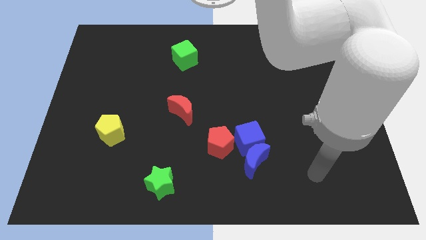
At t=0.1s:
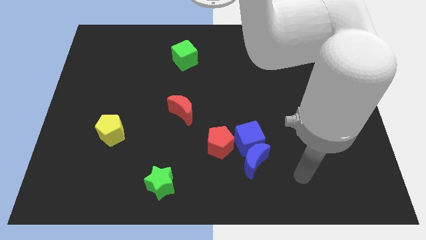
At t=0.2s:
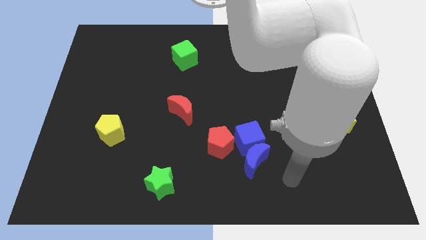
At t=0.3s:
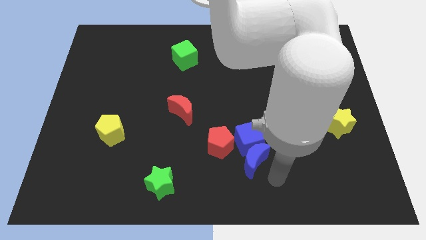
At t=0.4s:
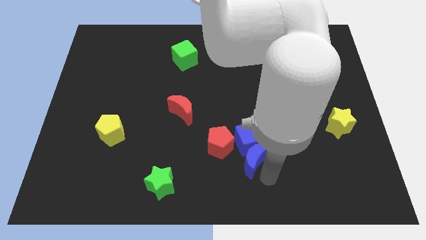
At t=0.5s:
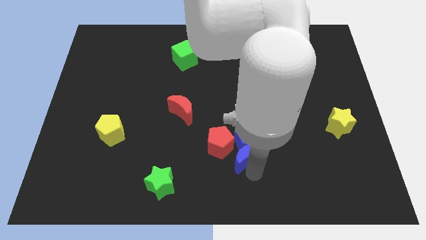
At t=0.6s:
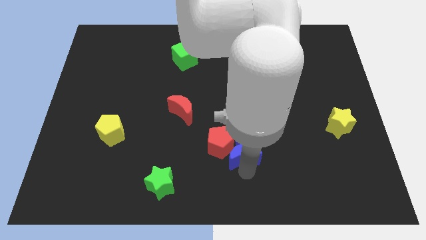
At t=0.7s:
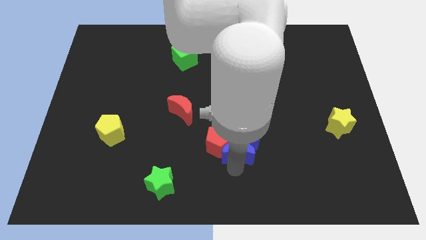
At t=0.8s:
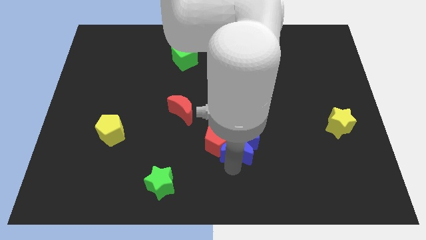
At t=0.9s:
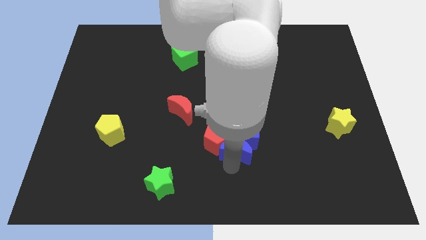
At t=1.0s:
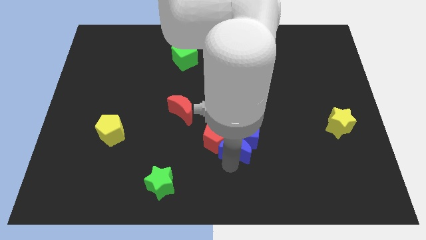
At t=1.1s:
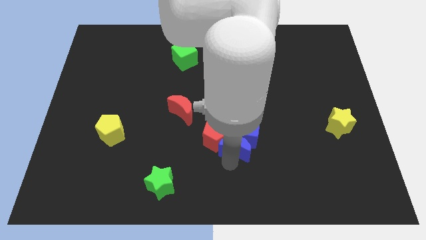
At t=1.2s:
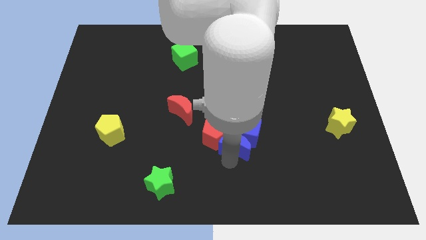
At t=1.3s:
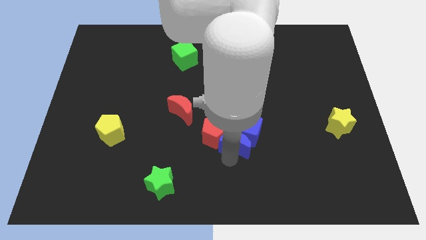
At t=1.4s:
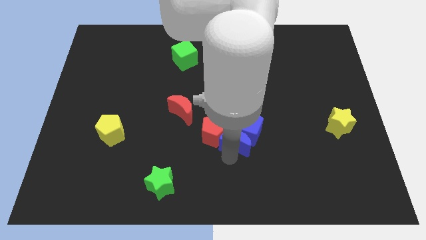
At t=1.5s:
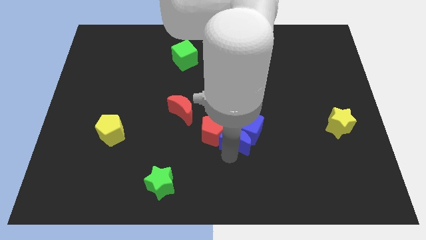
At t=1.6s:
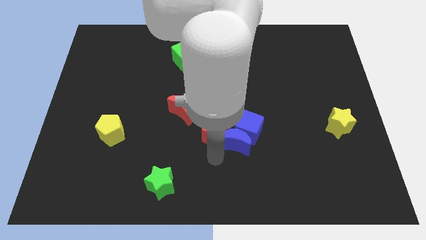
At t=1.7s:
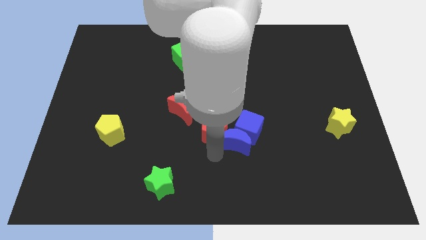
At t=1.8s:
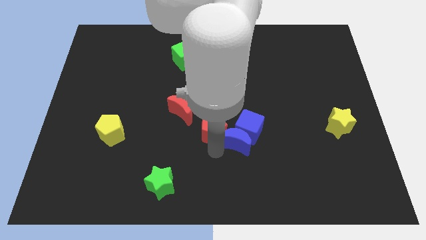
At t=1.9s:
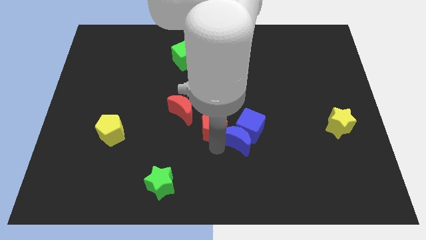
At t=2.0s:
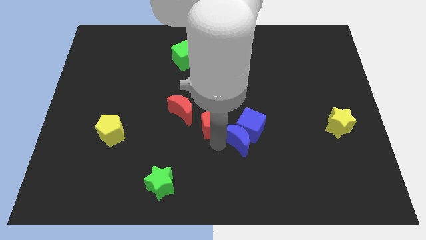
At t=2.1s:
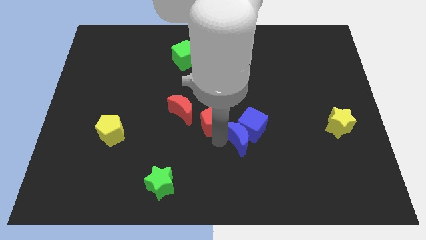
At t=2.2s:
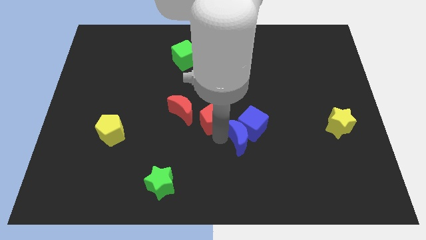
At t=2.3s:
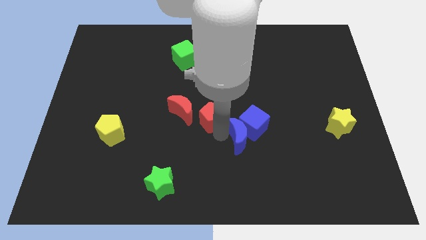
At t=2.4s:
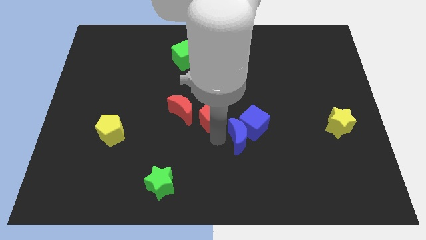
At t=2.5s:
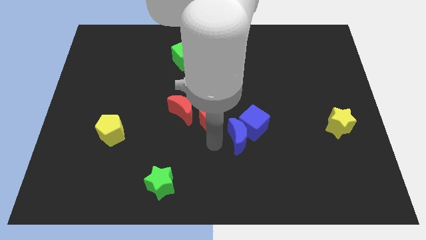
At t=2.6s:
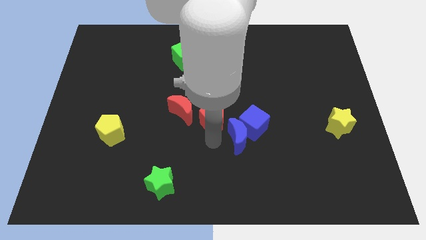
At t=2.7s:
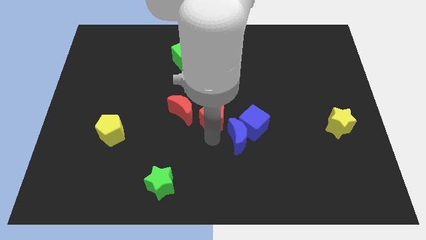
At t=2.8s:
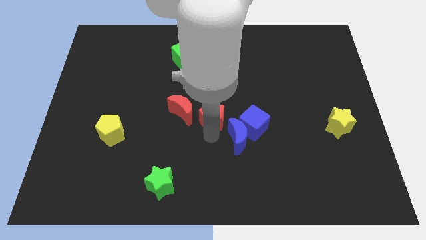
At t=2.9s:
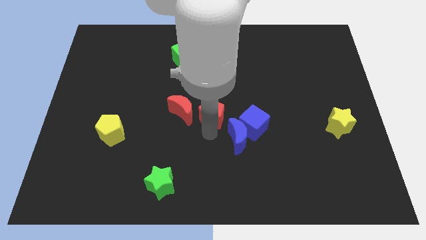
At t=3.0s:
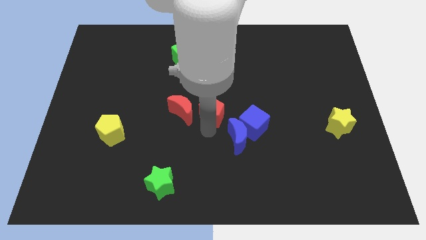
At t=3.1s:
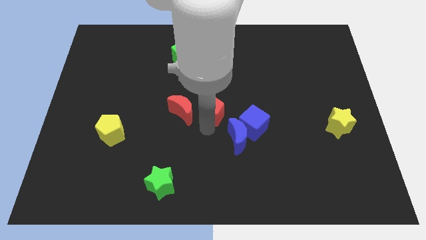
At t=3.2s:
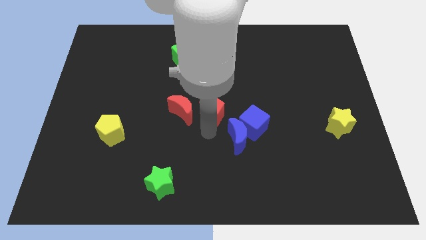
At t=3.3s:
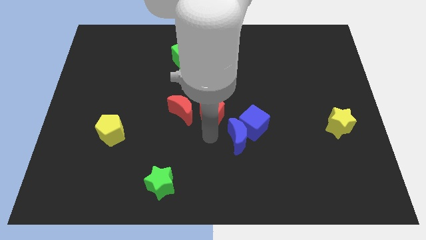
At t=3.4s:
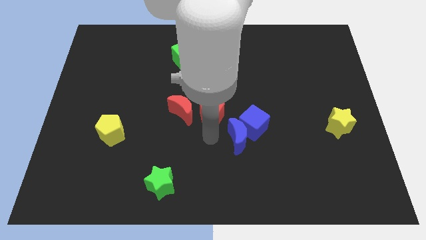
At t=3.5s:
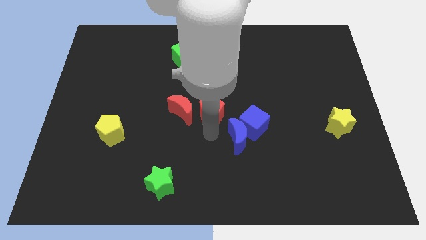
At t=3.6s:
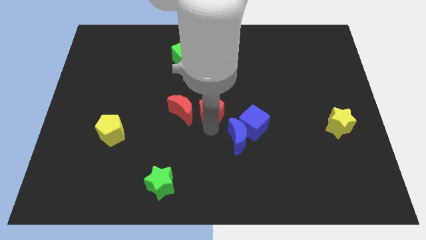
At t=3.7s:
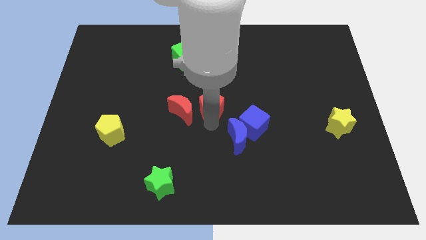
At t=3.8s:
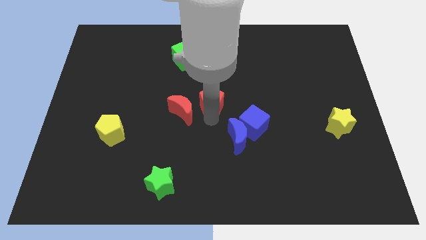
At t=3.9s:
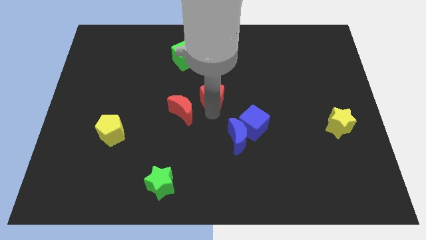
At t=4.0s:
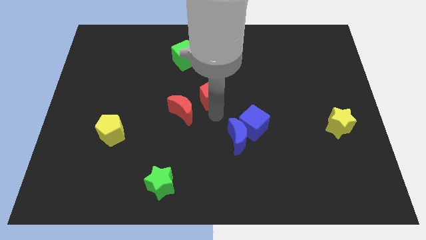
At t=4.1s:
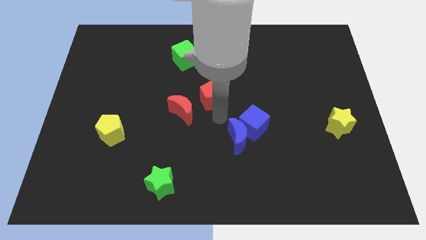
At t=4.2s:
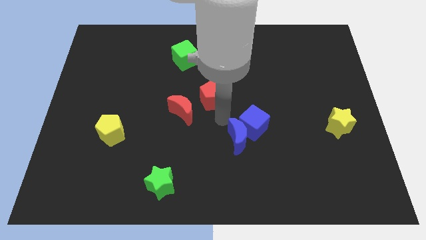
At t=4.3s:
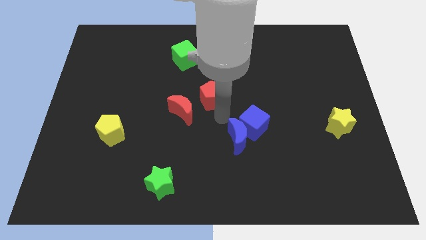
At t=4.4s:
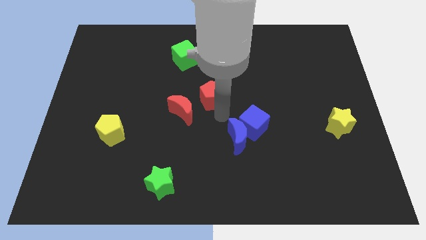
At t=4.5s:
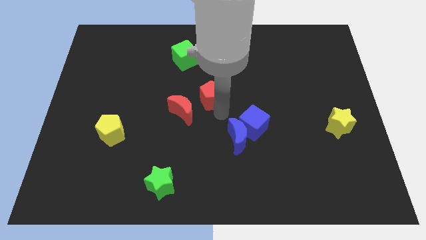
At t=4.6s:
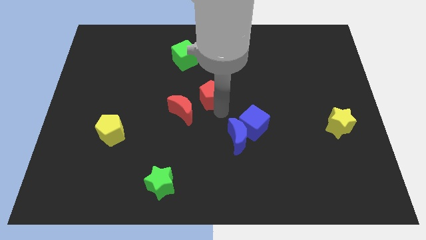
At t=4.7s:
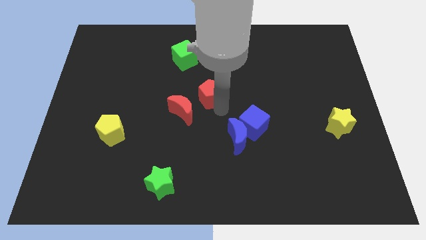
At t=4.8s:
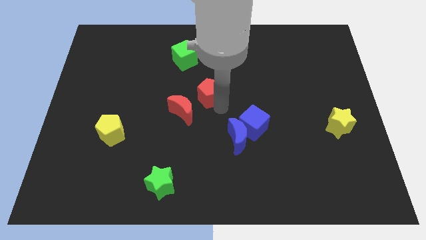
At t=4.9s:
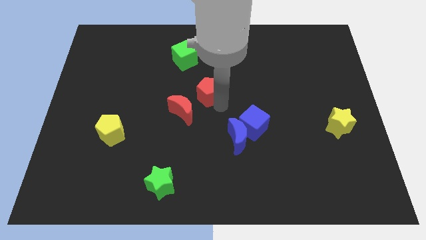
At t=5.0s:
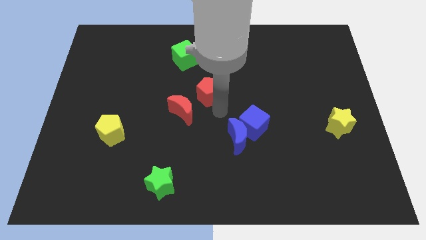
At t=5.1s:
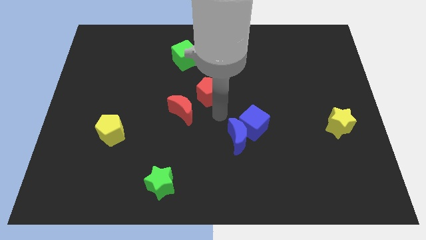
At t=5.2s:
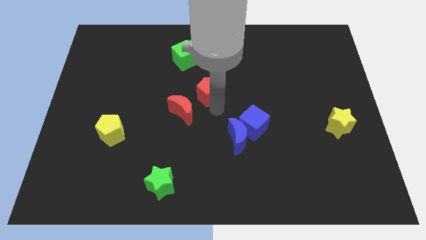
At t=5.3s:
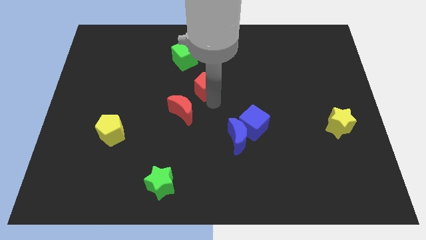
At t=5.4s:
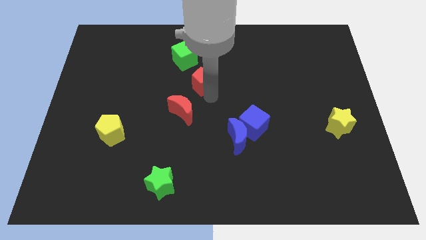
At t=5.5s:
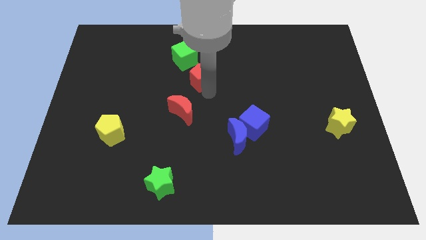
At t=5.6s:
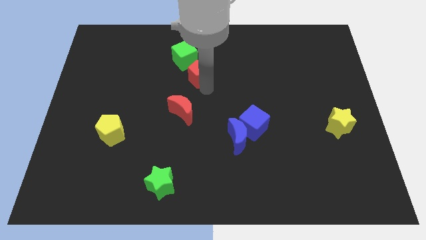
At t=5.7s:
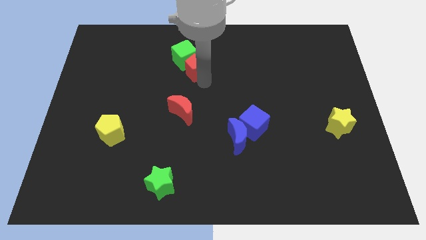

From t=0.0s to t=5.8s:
slide the red pentagon next to the green cube

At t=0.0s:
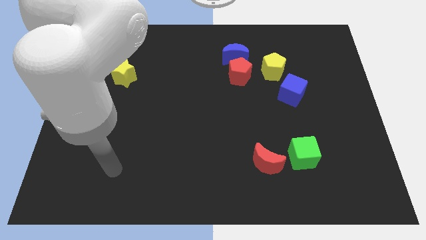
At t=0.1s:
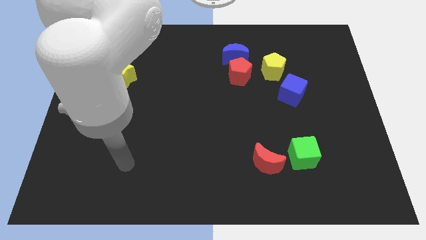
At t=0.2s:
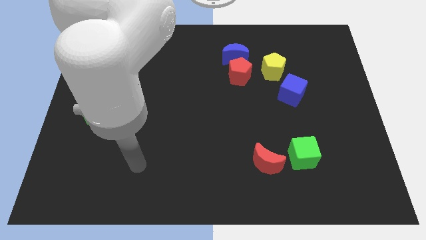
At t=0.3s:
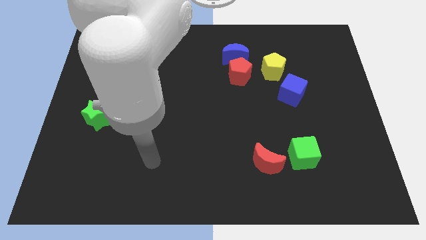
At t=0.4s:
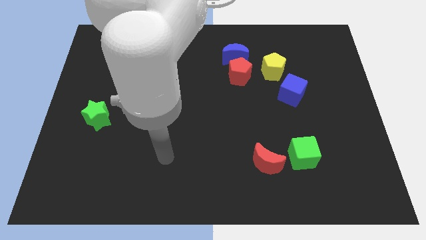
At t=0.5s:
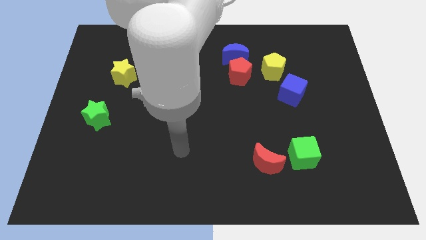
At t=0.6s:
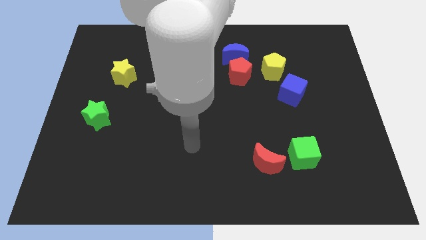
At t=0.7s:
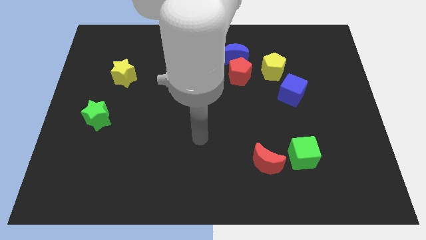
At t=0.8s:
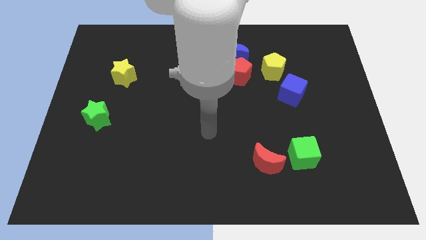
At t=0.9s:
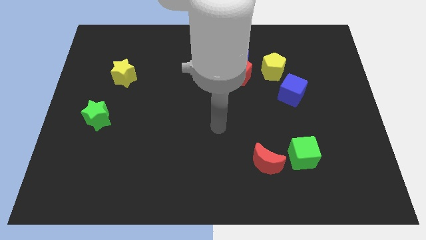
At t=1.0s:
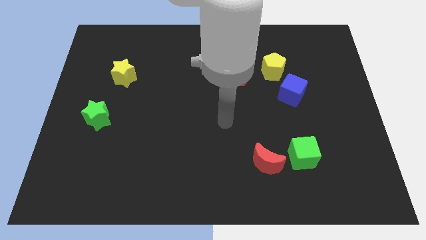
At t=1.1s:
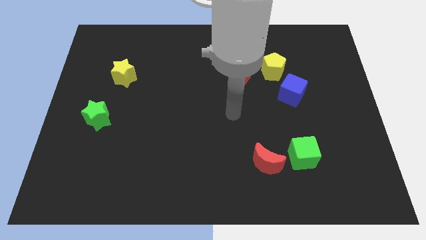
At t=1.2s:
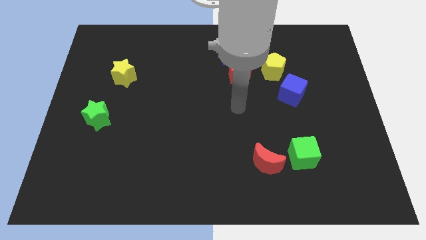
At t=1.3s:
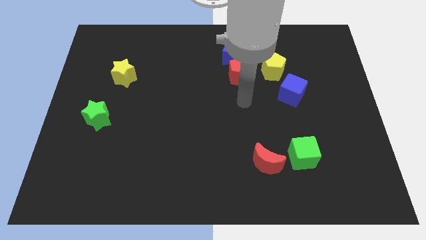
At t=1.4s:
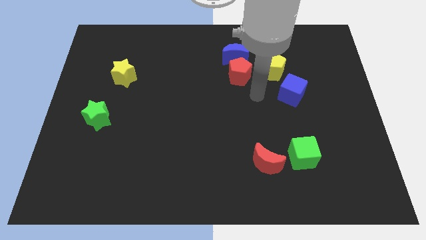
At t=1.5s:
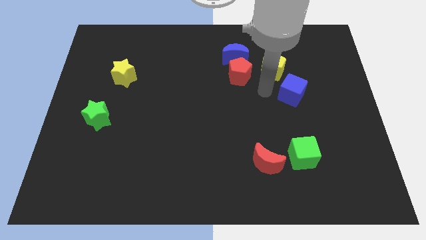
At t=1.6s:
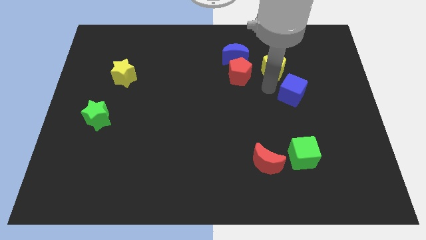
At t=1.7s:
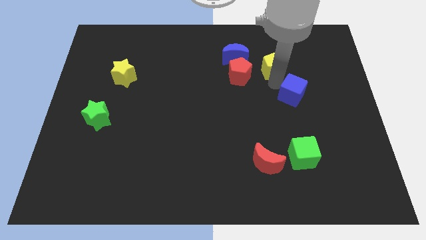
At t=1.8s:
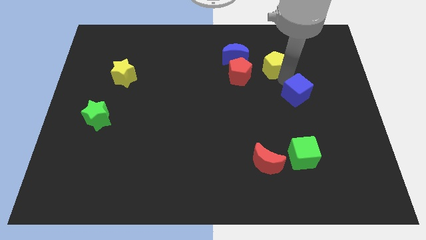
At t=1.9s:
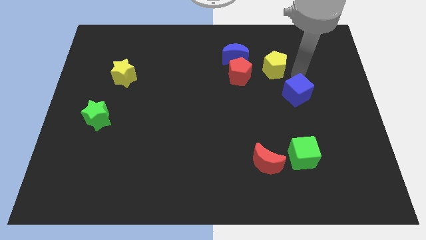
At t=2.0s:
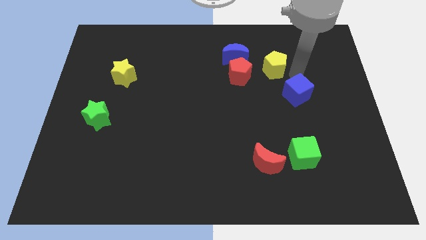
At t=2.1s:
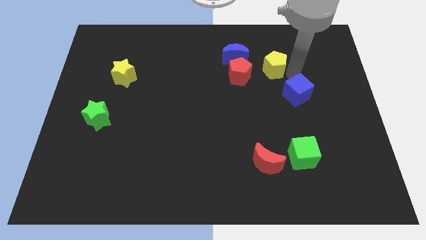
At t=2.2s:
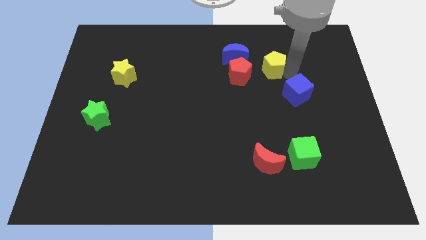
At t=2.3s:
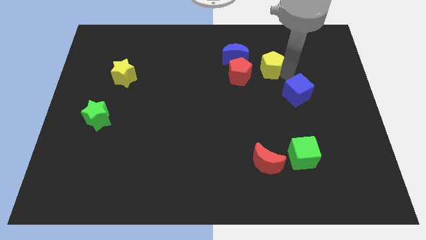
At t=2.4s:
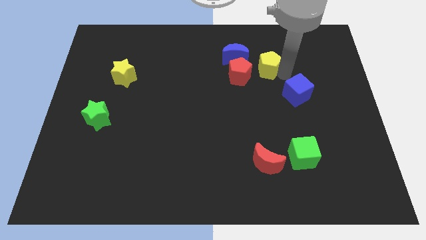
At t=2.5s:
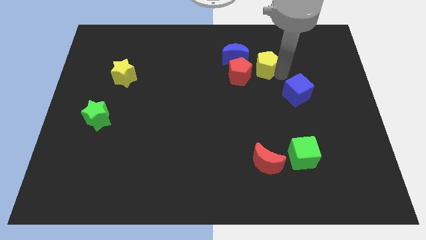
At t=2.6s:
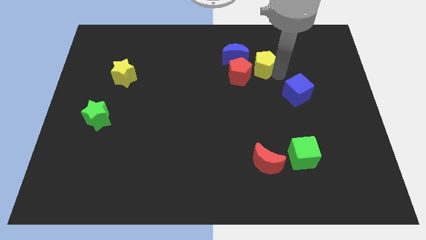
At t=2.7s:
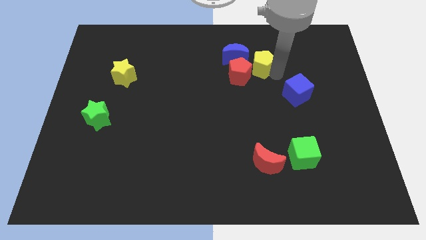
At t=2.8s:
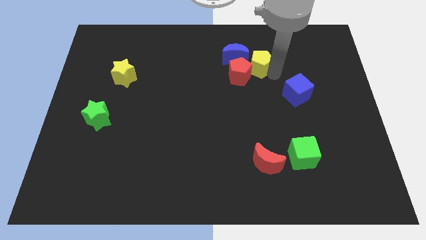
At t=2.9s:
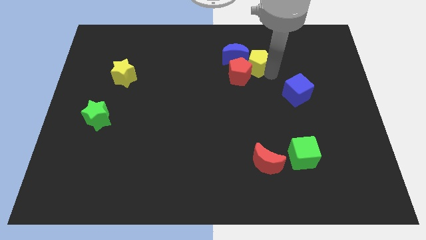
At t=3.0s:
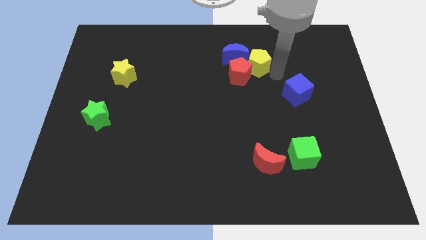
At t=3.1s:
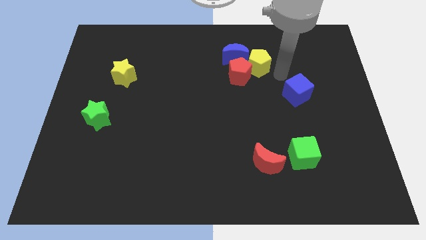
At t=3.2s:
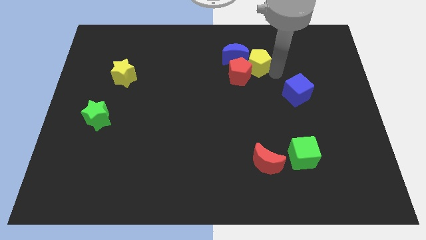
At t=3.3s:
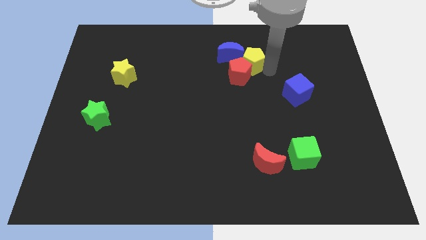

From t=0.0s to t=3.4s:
put the yellow pentagon close to the blue moon
